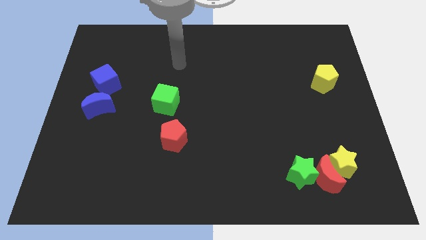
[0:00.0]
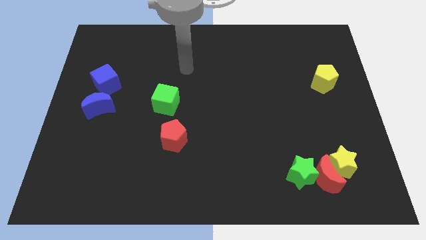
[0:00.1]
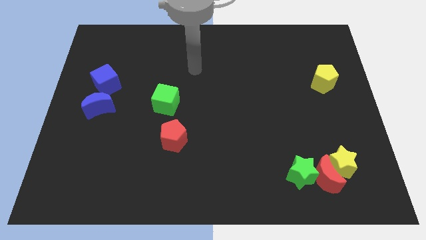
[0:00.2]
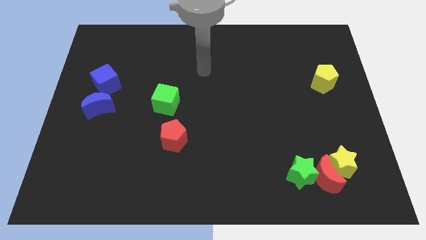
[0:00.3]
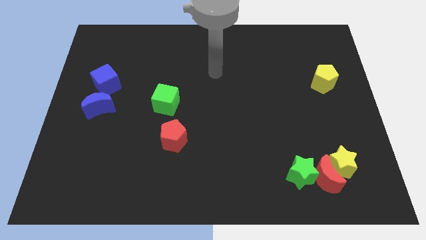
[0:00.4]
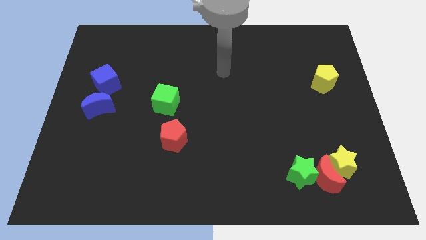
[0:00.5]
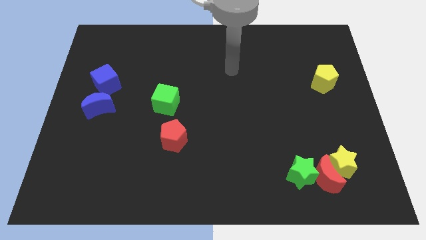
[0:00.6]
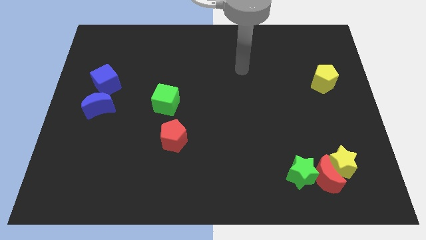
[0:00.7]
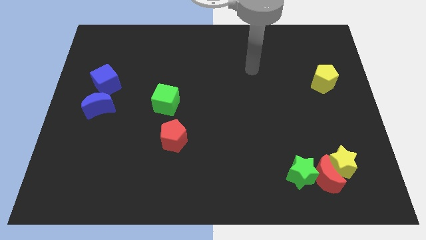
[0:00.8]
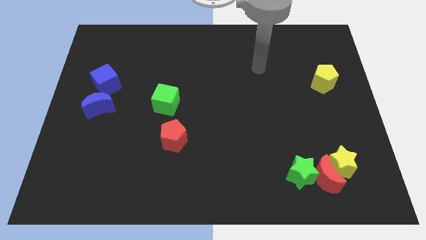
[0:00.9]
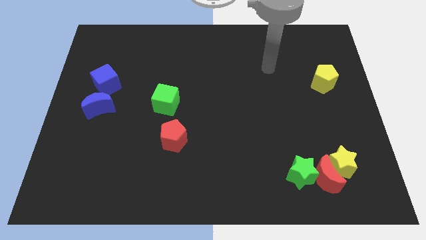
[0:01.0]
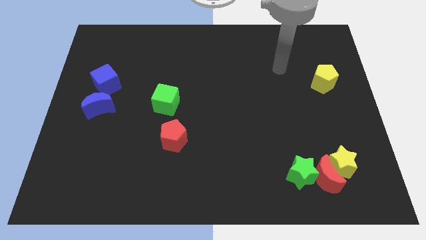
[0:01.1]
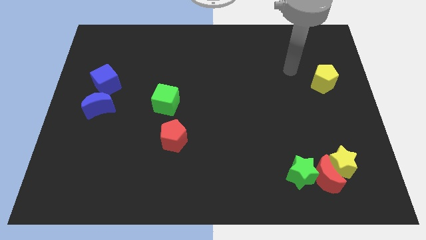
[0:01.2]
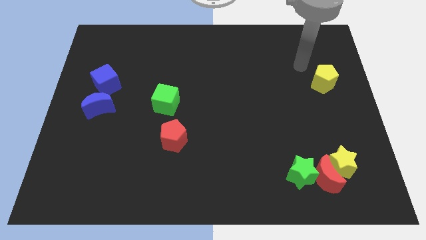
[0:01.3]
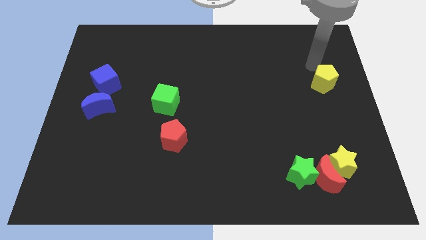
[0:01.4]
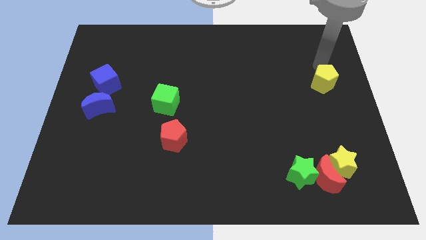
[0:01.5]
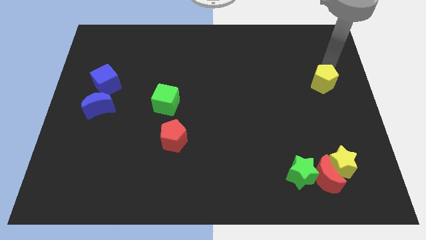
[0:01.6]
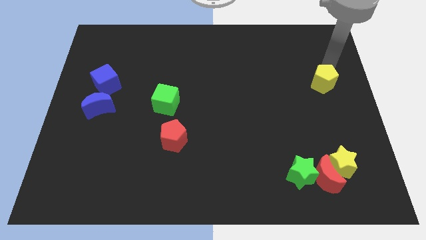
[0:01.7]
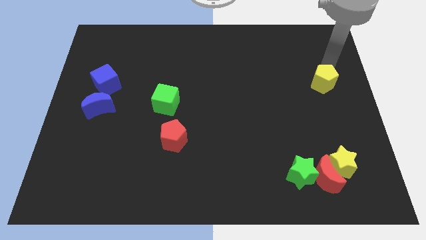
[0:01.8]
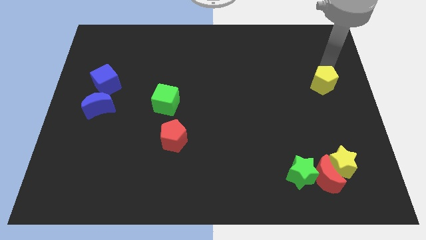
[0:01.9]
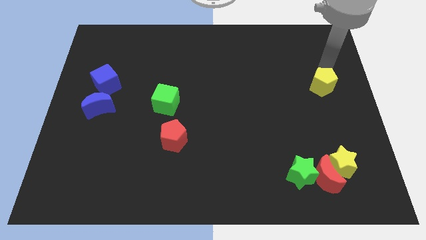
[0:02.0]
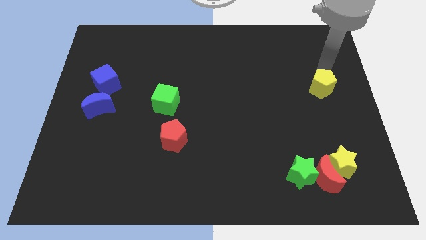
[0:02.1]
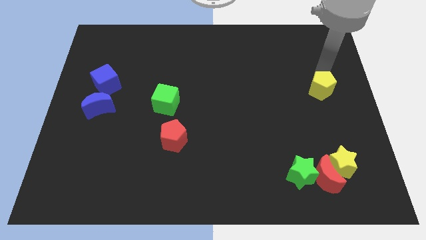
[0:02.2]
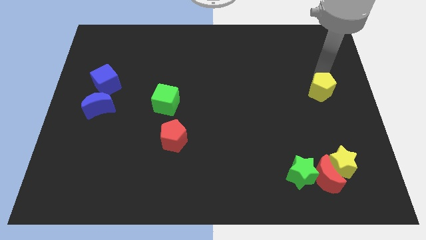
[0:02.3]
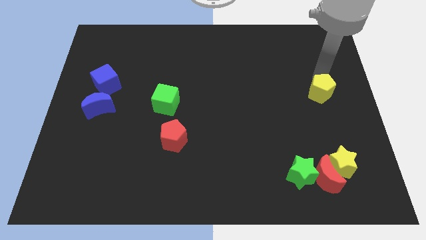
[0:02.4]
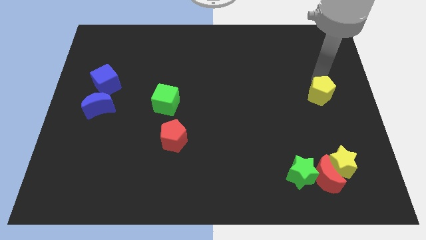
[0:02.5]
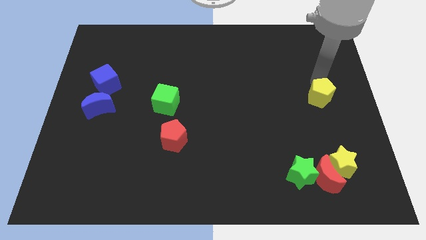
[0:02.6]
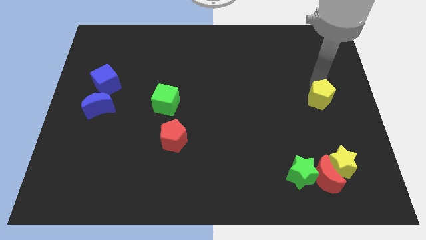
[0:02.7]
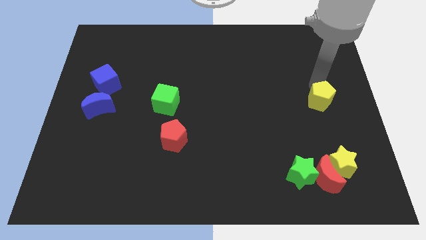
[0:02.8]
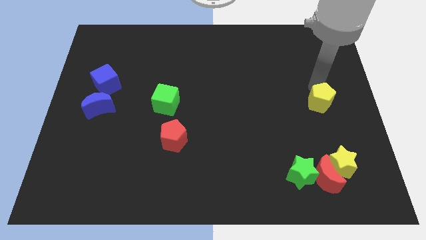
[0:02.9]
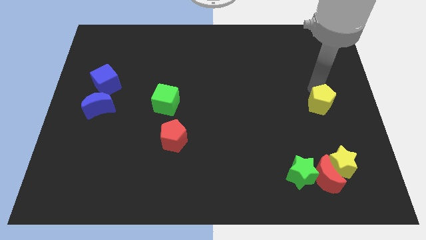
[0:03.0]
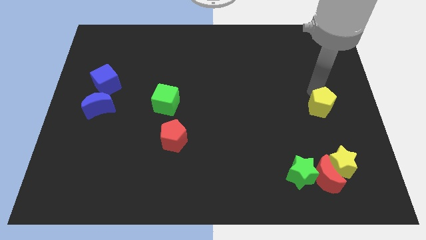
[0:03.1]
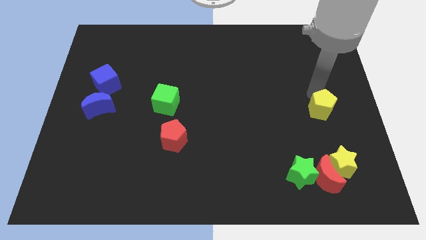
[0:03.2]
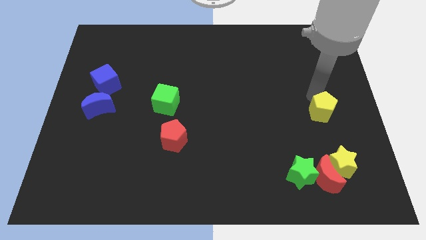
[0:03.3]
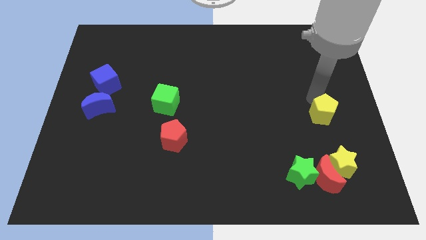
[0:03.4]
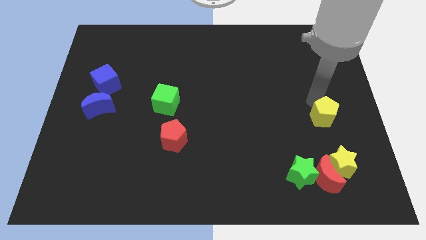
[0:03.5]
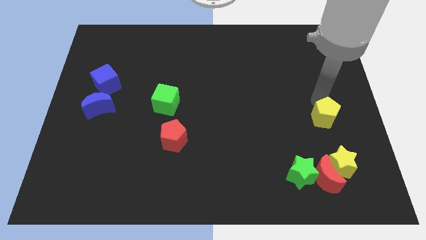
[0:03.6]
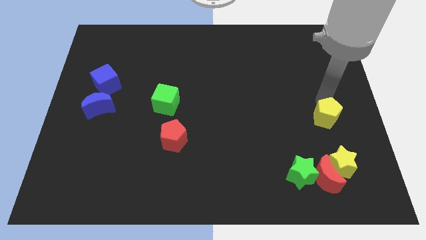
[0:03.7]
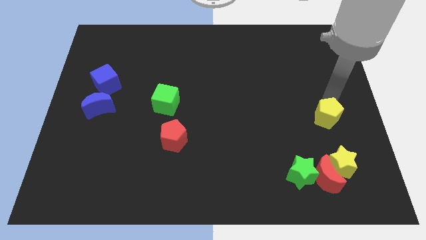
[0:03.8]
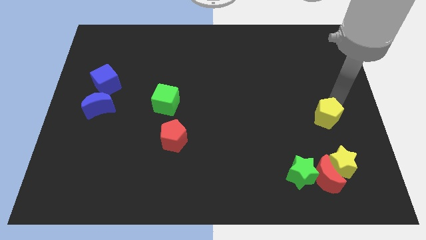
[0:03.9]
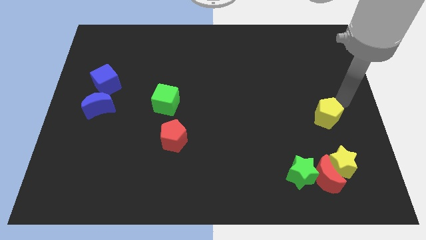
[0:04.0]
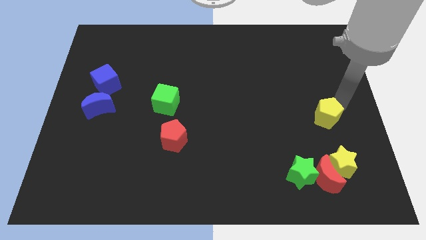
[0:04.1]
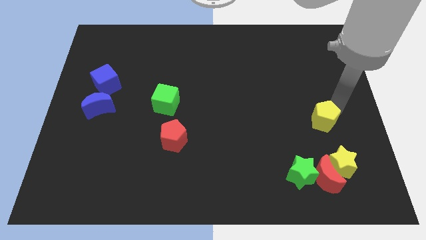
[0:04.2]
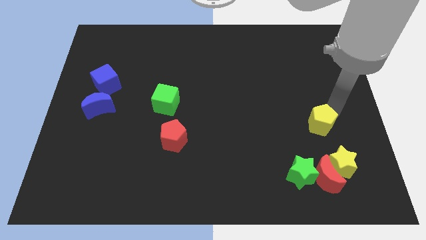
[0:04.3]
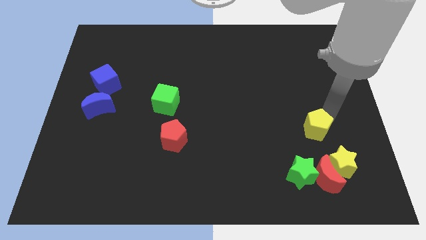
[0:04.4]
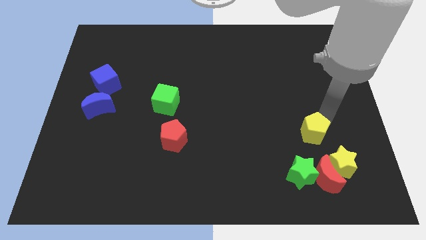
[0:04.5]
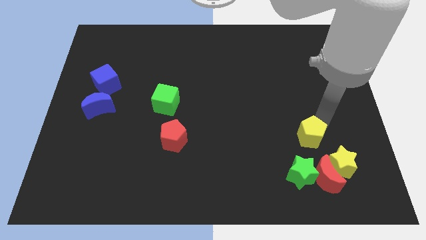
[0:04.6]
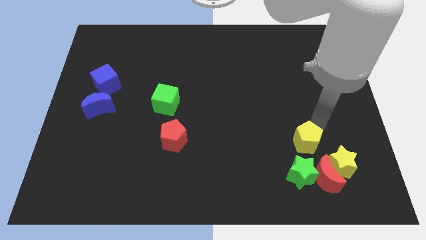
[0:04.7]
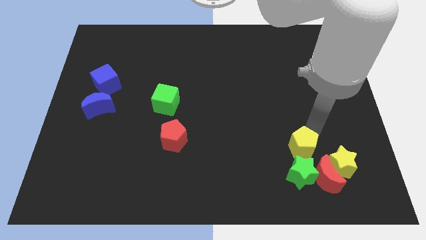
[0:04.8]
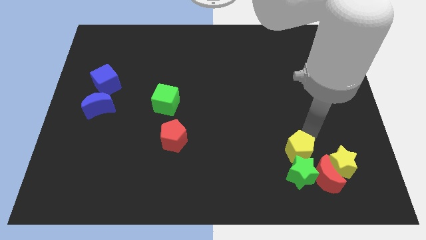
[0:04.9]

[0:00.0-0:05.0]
put the yellow pentagon to the green star
